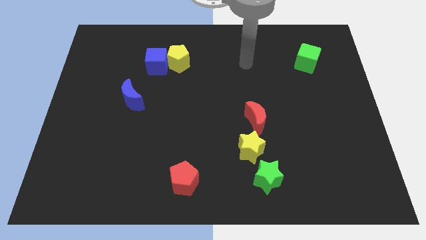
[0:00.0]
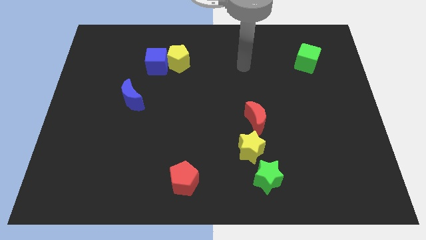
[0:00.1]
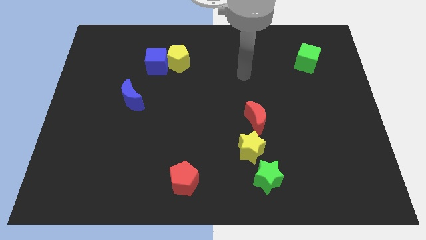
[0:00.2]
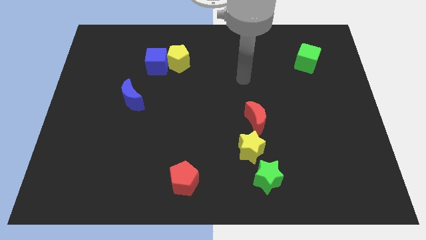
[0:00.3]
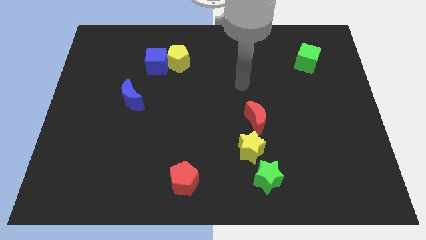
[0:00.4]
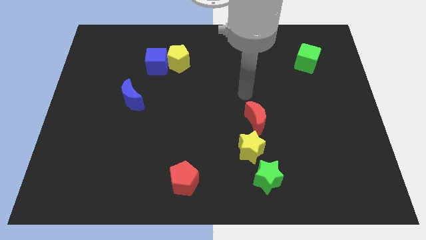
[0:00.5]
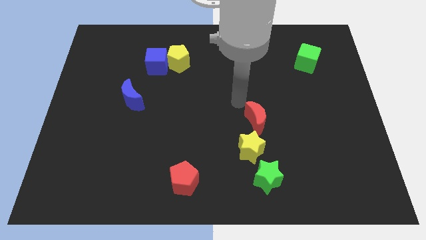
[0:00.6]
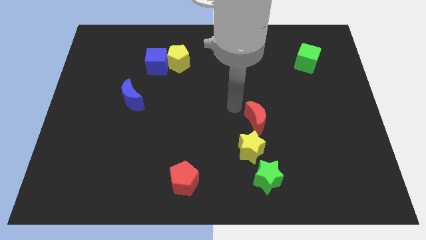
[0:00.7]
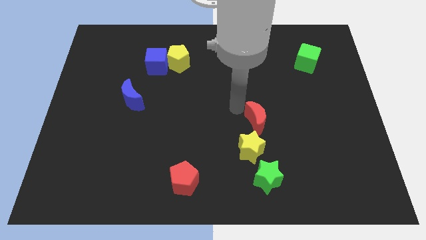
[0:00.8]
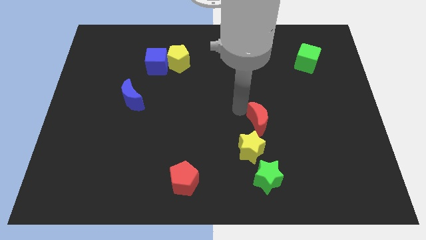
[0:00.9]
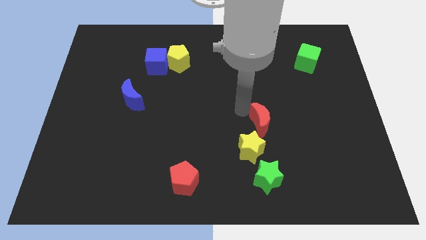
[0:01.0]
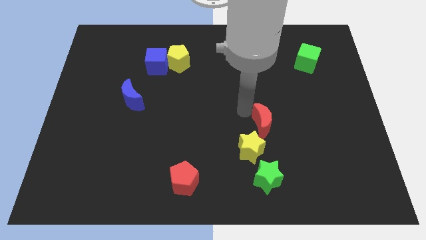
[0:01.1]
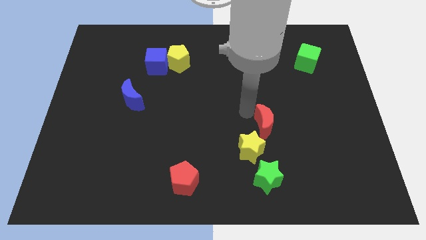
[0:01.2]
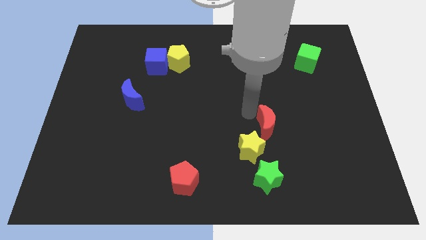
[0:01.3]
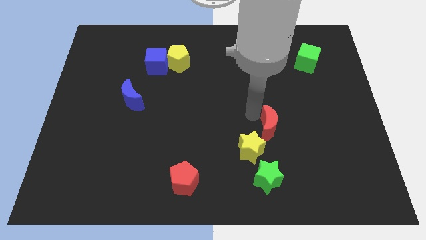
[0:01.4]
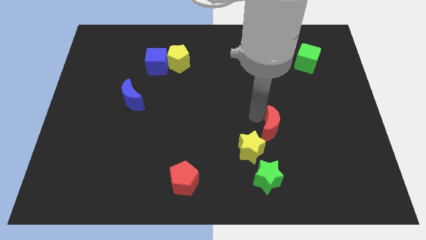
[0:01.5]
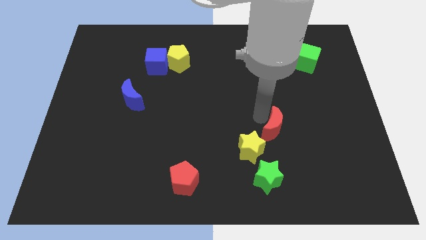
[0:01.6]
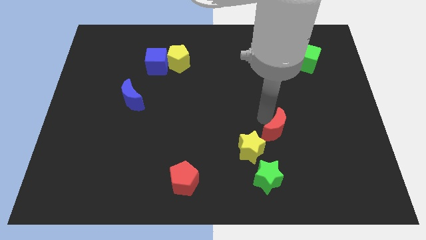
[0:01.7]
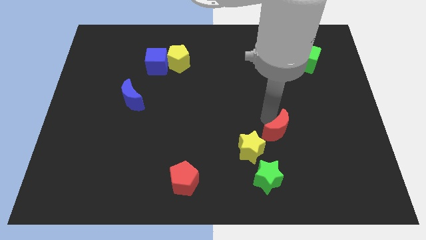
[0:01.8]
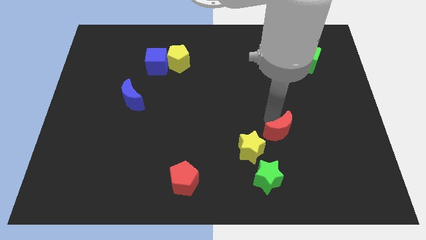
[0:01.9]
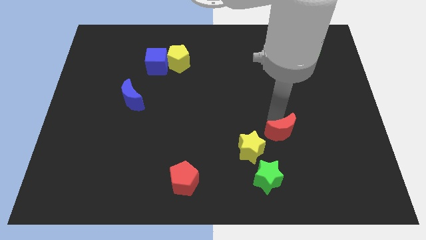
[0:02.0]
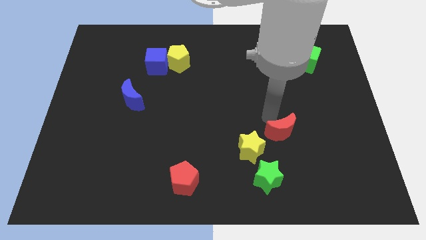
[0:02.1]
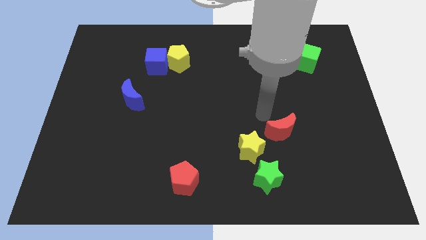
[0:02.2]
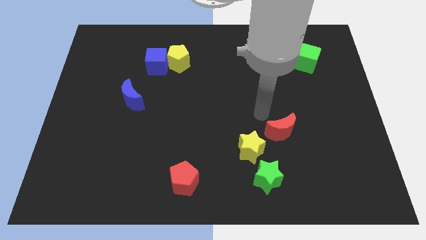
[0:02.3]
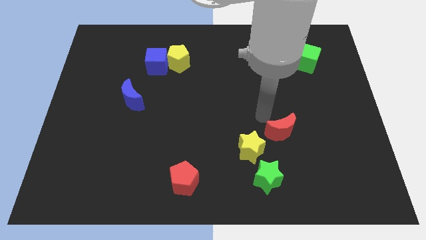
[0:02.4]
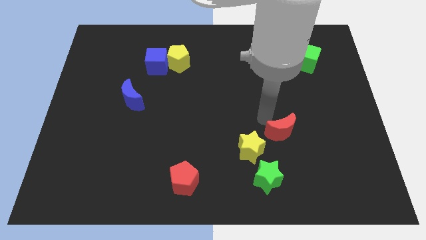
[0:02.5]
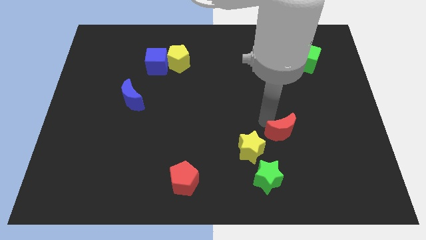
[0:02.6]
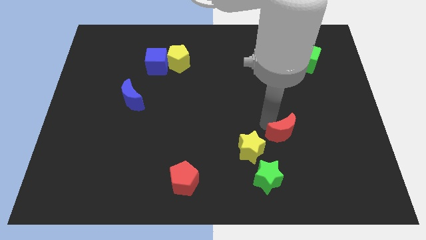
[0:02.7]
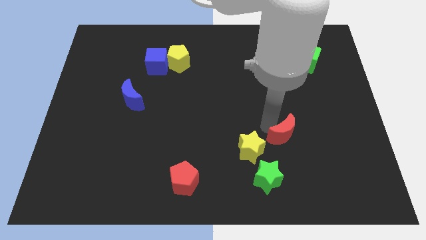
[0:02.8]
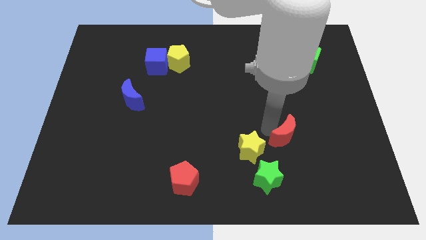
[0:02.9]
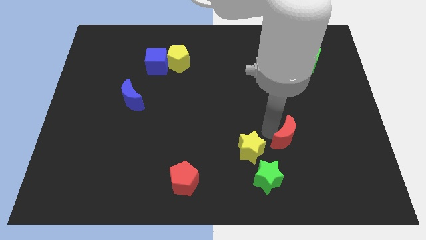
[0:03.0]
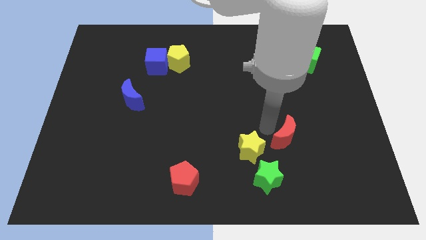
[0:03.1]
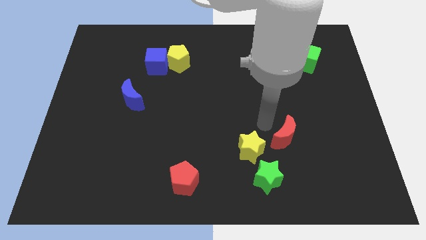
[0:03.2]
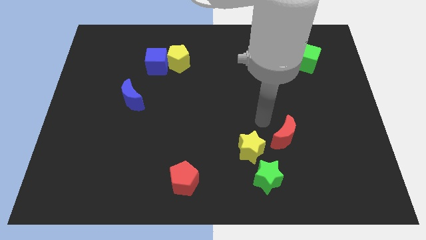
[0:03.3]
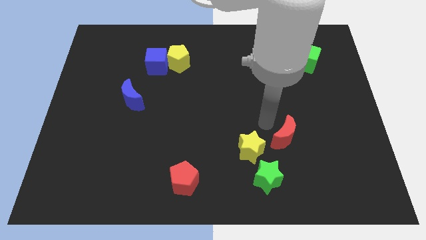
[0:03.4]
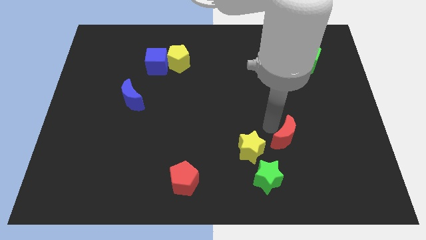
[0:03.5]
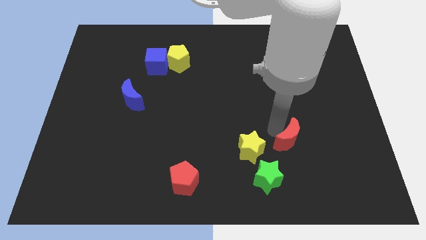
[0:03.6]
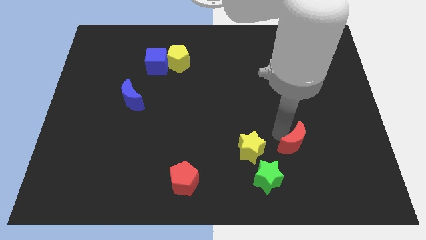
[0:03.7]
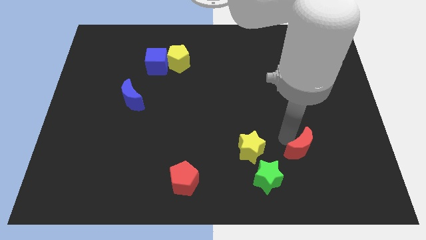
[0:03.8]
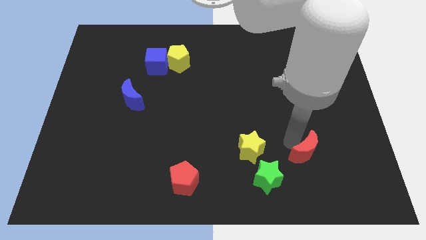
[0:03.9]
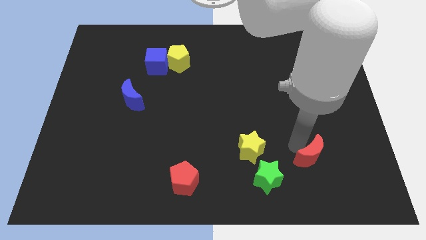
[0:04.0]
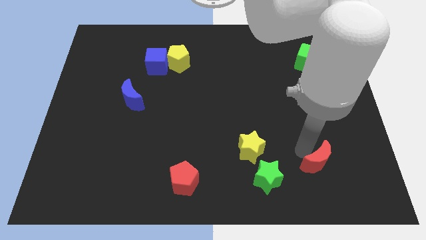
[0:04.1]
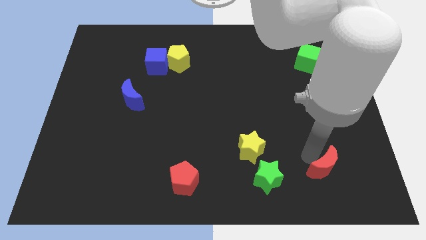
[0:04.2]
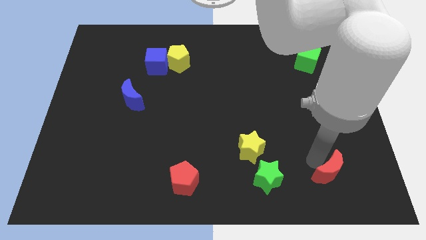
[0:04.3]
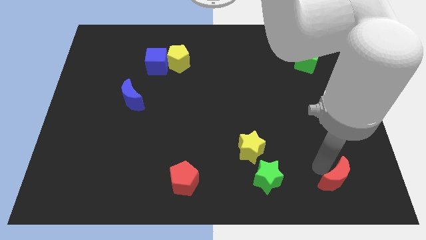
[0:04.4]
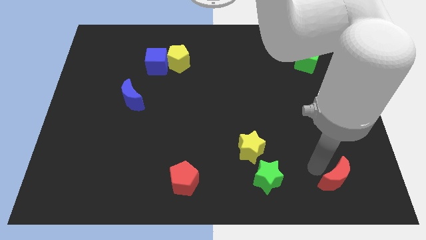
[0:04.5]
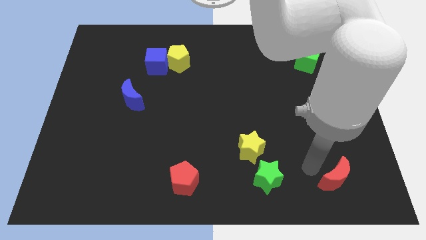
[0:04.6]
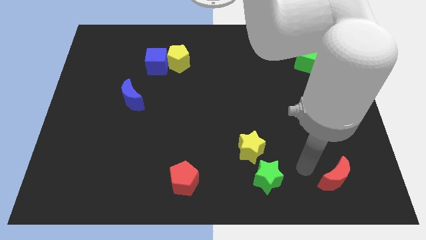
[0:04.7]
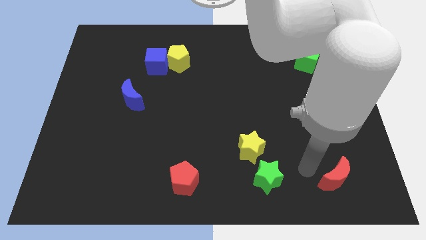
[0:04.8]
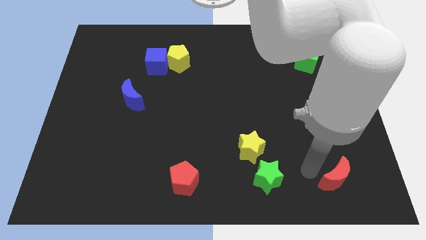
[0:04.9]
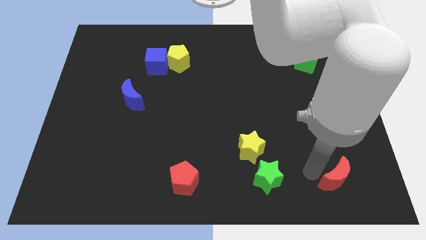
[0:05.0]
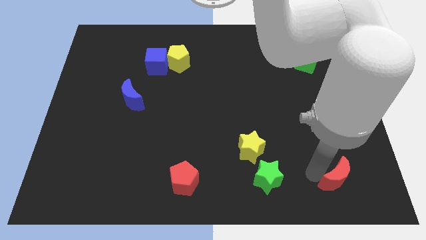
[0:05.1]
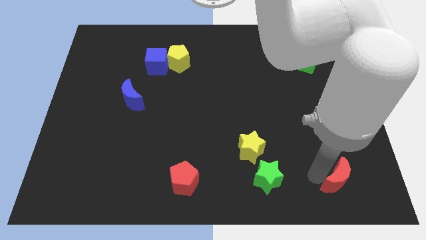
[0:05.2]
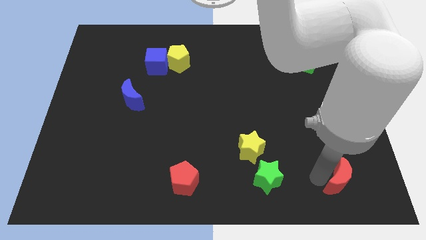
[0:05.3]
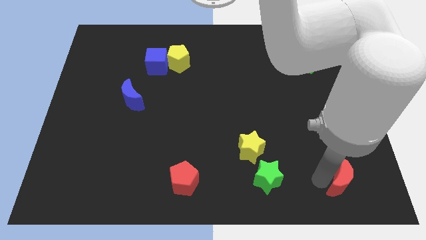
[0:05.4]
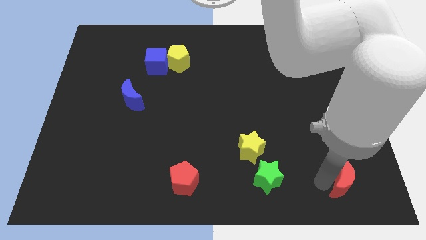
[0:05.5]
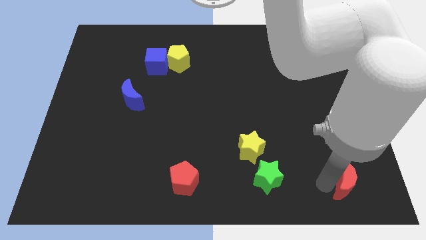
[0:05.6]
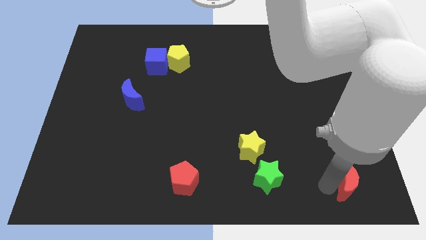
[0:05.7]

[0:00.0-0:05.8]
slide the red moon to the bottom right

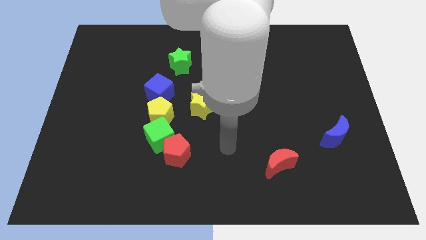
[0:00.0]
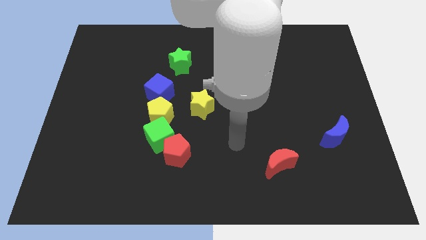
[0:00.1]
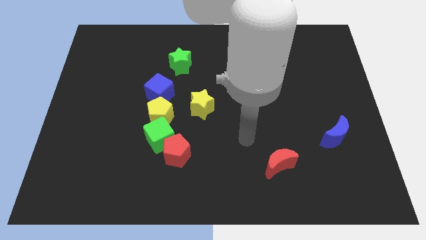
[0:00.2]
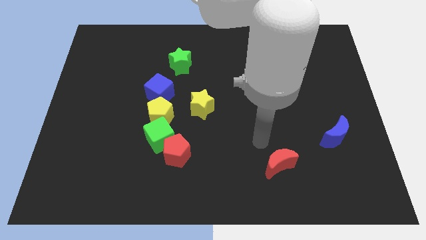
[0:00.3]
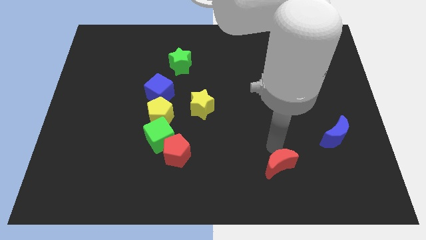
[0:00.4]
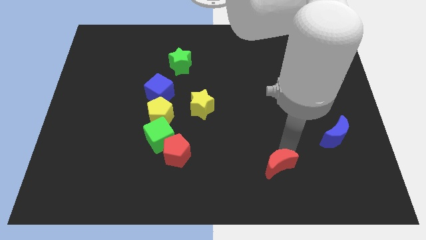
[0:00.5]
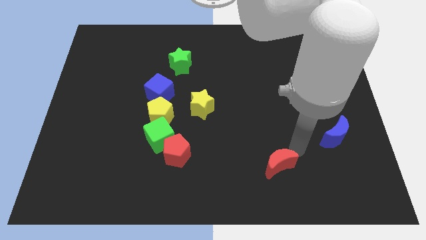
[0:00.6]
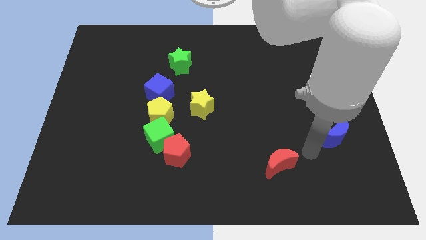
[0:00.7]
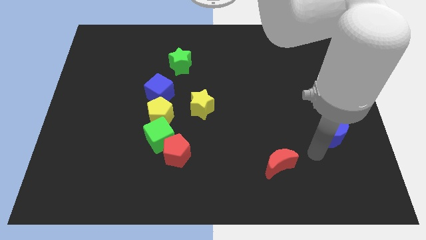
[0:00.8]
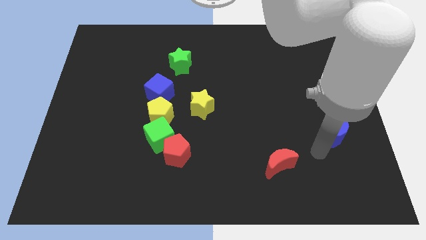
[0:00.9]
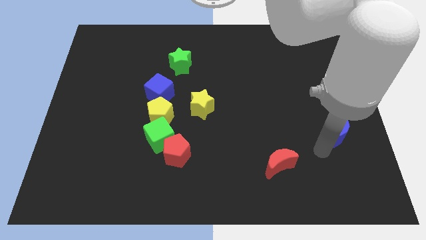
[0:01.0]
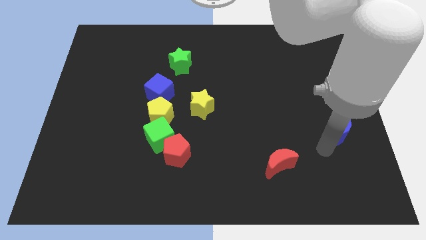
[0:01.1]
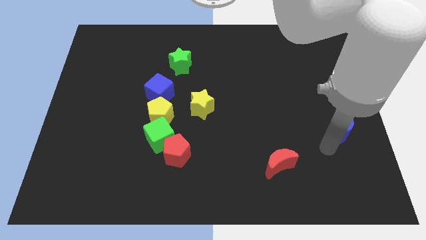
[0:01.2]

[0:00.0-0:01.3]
put the blue moon to the right side
